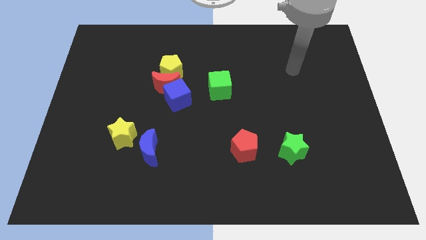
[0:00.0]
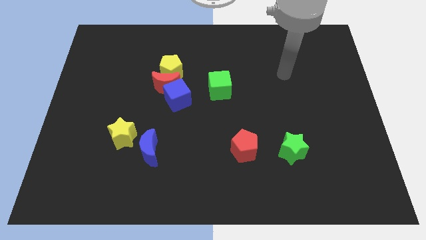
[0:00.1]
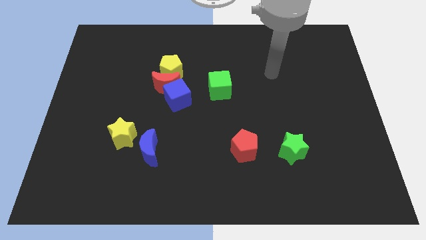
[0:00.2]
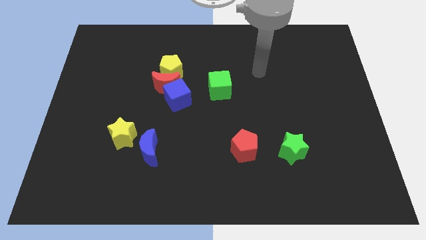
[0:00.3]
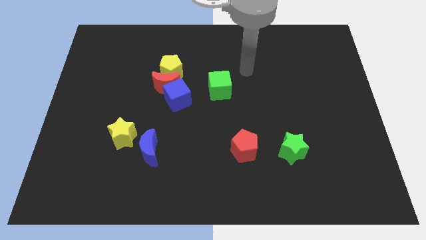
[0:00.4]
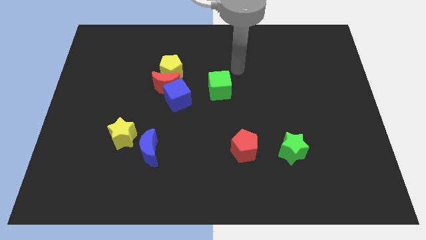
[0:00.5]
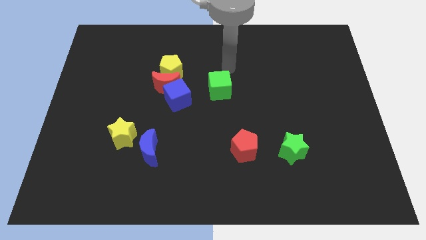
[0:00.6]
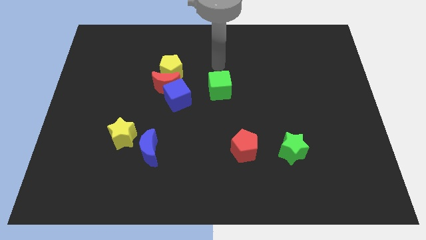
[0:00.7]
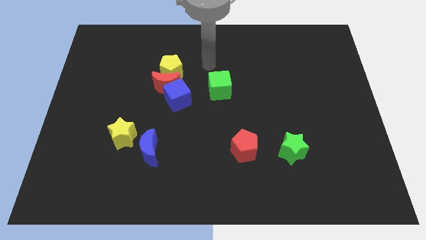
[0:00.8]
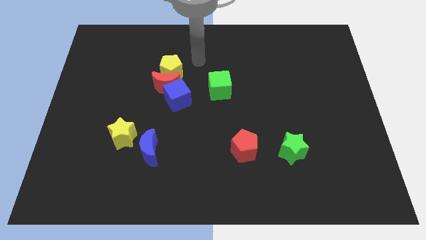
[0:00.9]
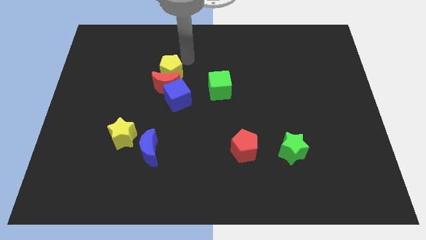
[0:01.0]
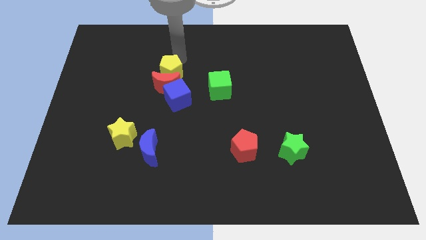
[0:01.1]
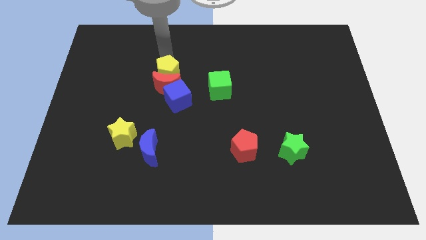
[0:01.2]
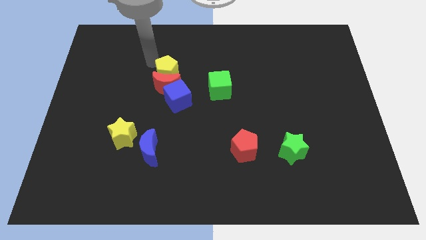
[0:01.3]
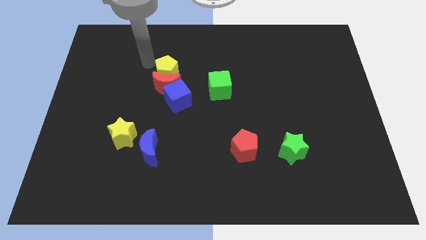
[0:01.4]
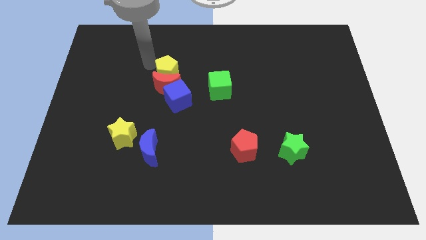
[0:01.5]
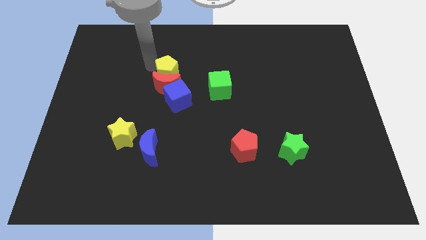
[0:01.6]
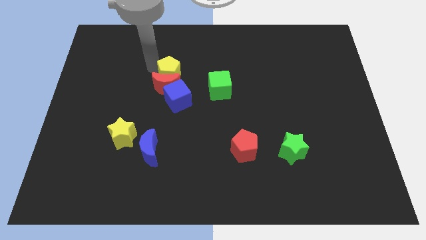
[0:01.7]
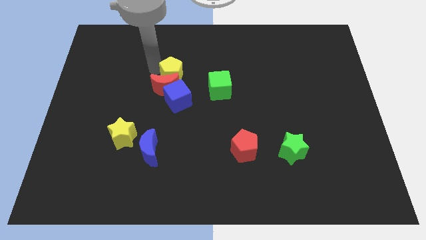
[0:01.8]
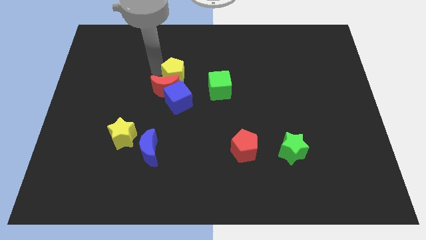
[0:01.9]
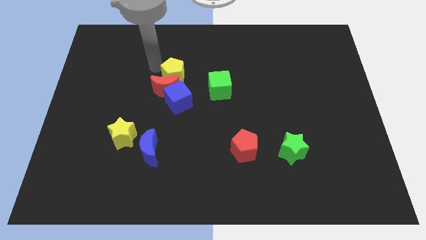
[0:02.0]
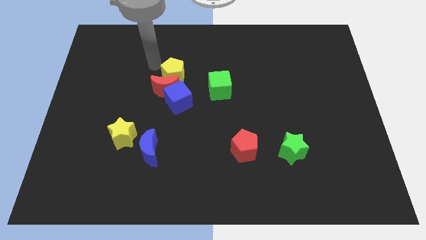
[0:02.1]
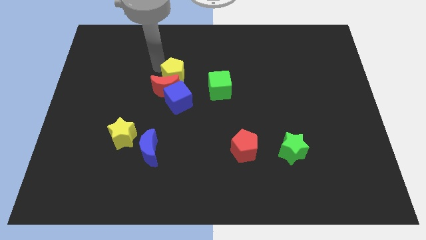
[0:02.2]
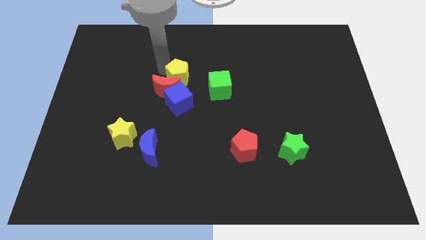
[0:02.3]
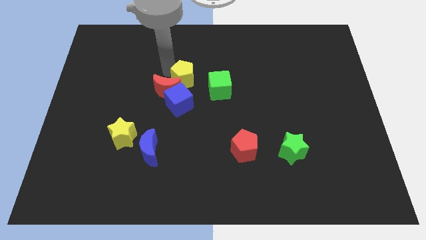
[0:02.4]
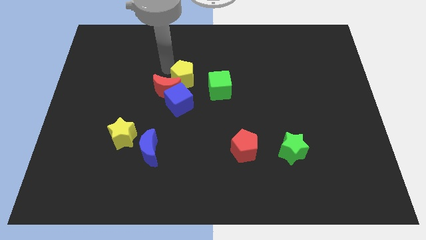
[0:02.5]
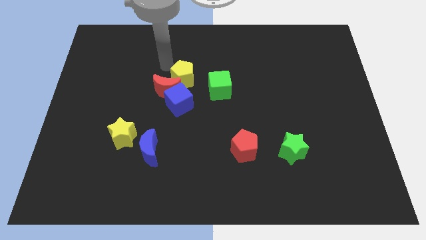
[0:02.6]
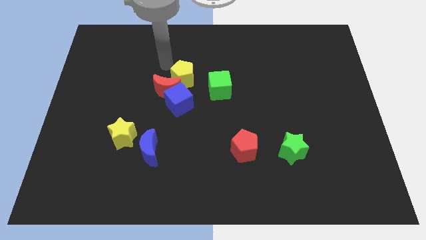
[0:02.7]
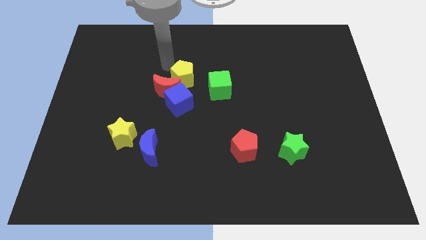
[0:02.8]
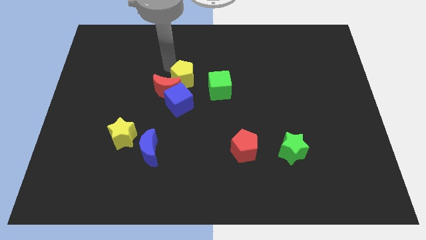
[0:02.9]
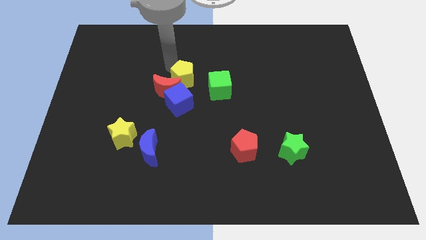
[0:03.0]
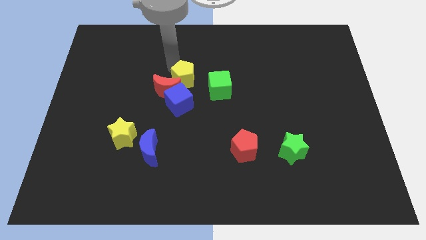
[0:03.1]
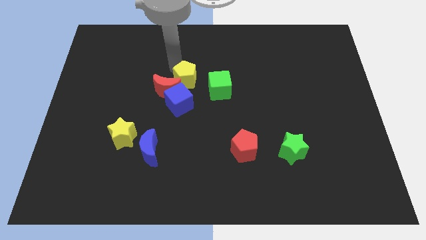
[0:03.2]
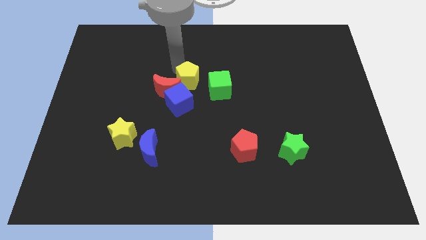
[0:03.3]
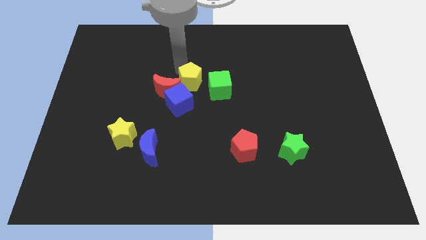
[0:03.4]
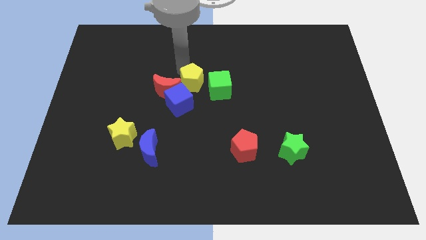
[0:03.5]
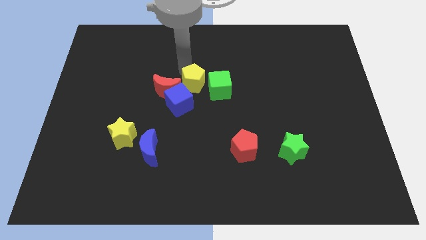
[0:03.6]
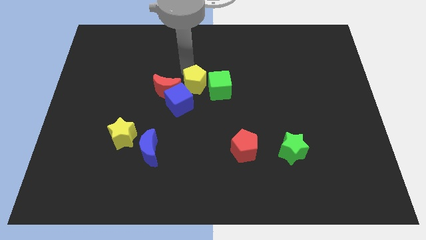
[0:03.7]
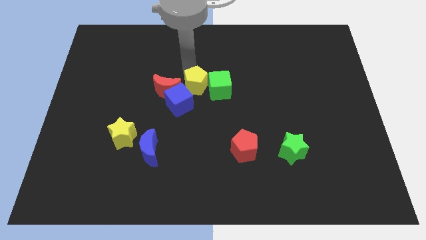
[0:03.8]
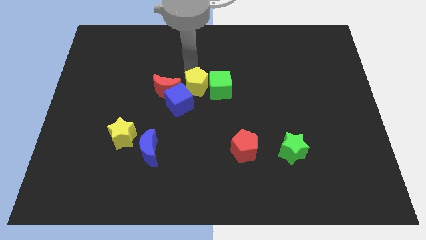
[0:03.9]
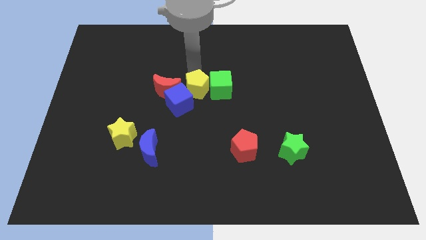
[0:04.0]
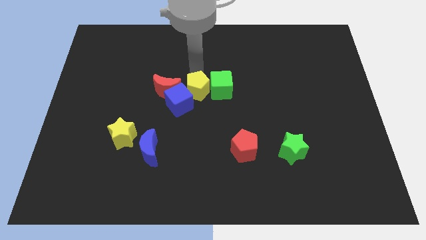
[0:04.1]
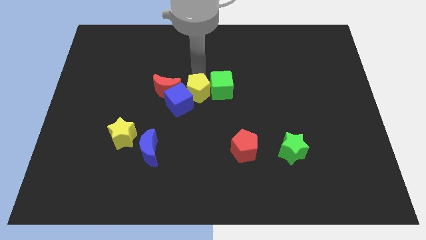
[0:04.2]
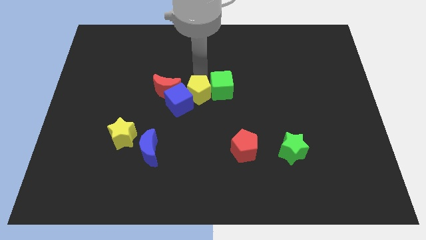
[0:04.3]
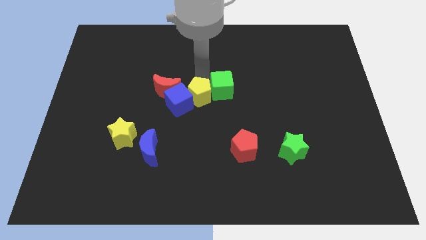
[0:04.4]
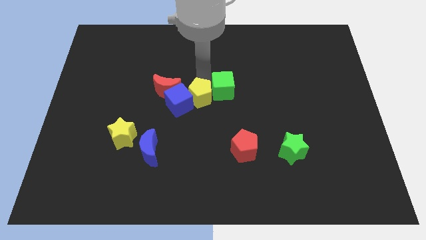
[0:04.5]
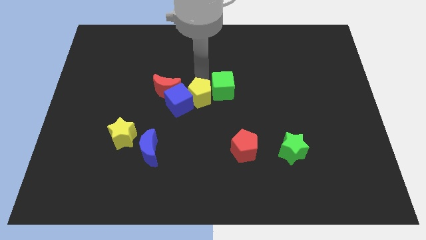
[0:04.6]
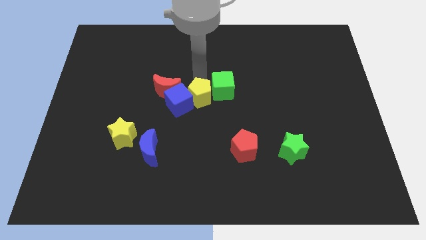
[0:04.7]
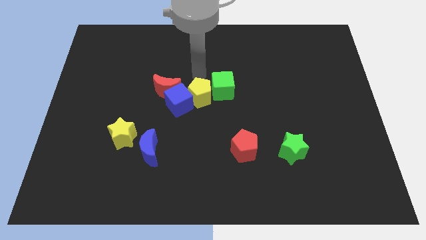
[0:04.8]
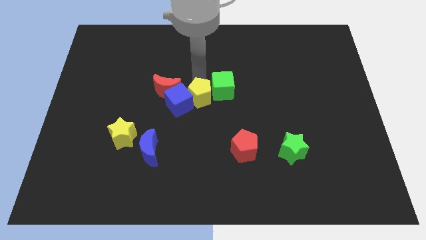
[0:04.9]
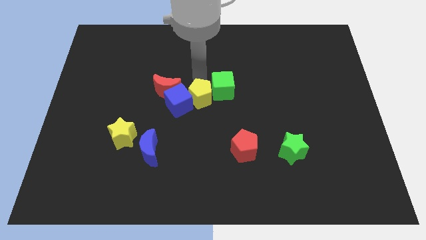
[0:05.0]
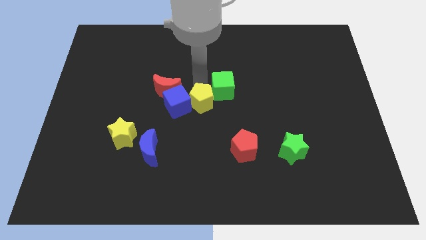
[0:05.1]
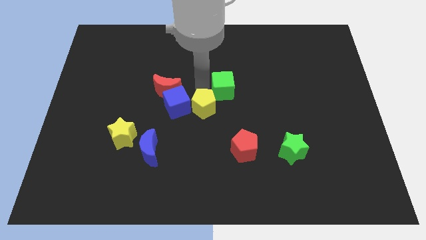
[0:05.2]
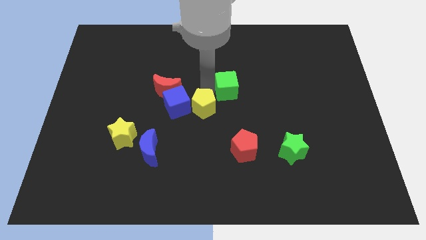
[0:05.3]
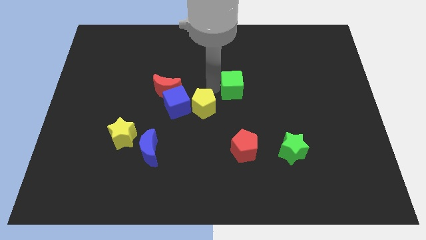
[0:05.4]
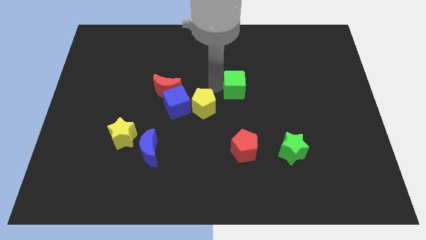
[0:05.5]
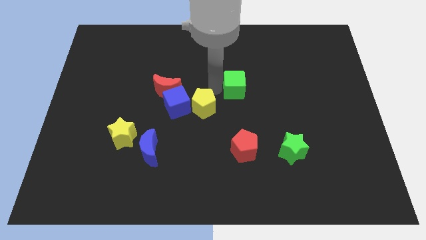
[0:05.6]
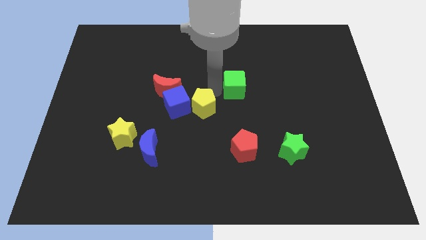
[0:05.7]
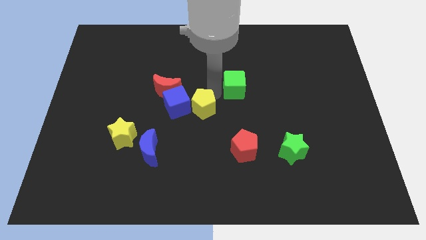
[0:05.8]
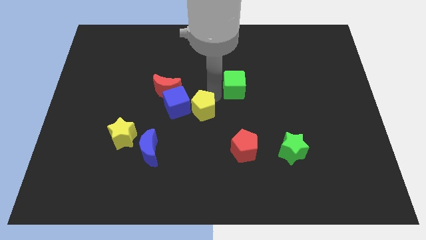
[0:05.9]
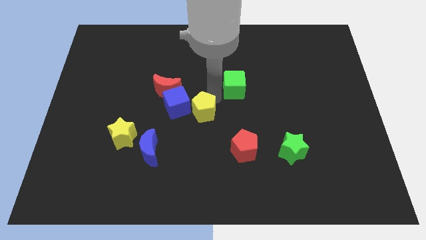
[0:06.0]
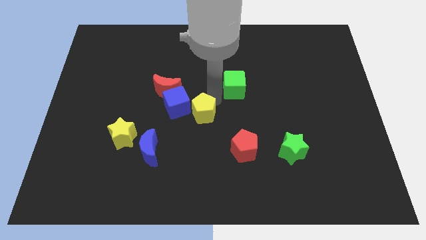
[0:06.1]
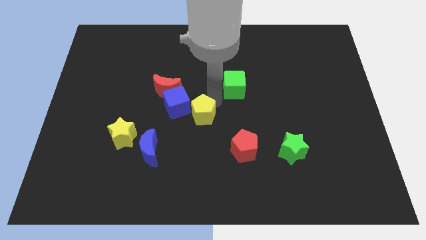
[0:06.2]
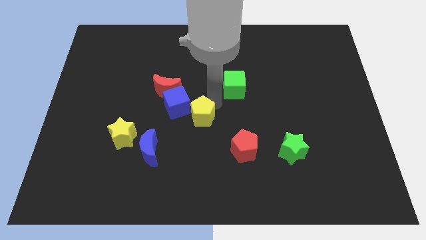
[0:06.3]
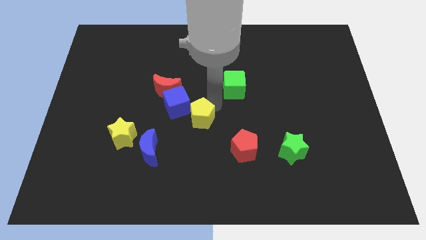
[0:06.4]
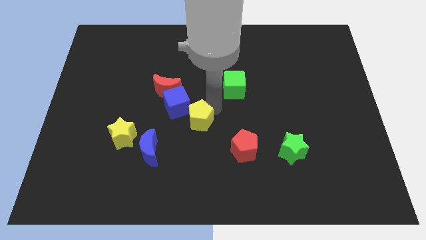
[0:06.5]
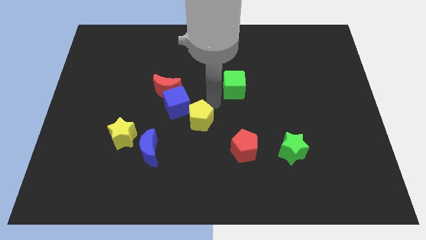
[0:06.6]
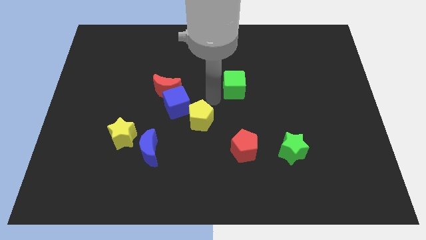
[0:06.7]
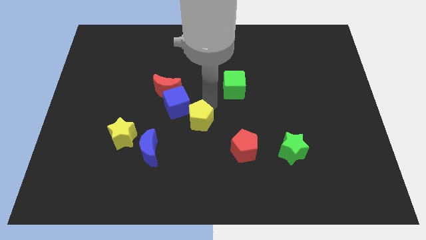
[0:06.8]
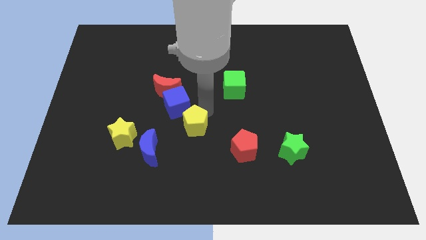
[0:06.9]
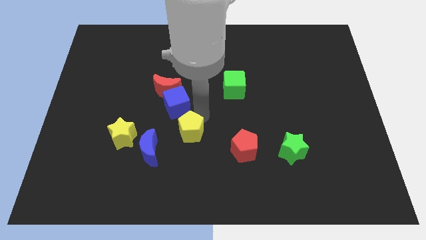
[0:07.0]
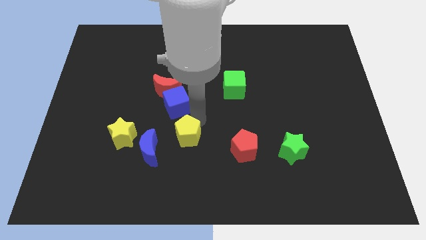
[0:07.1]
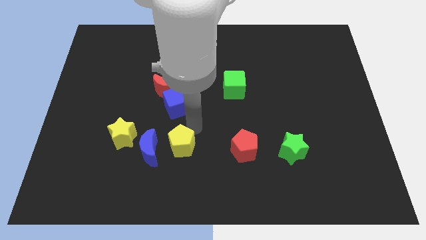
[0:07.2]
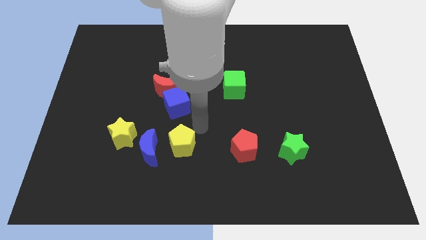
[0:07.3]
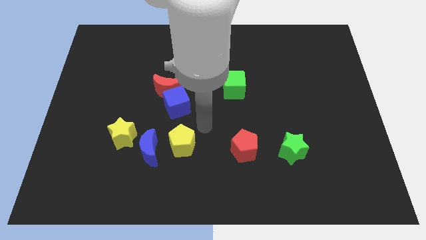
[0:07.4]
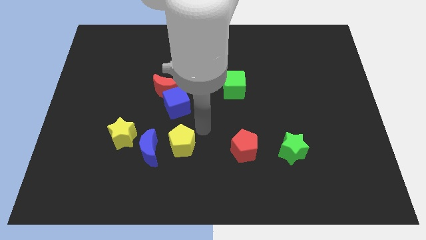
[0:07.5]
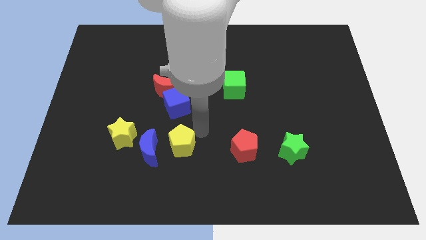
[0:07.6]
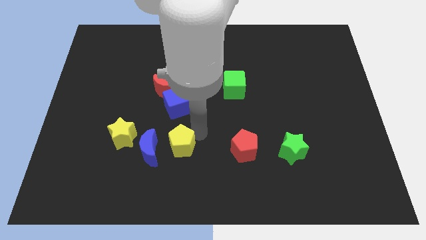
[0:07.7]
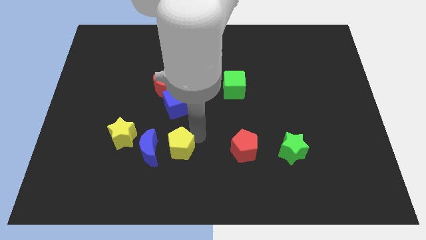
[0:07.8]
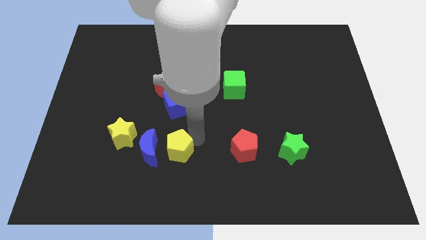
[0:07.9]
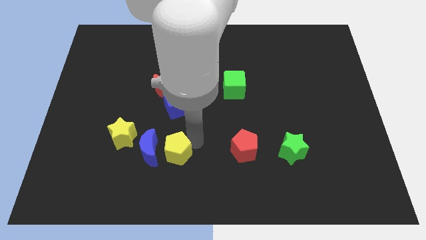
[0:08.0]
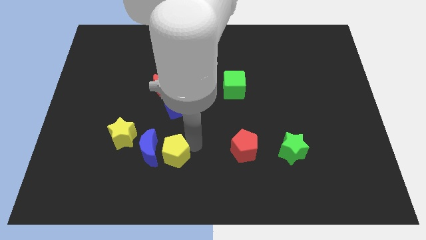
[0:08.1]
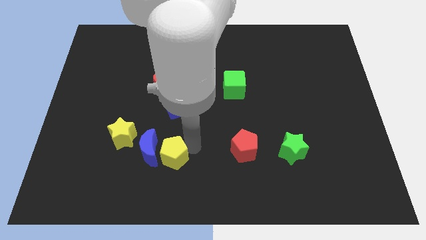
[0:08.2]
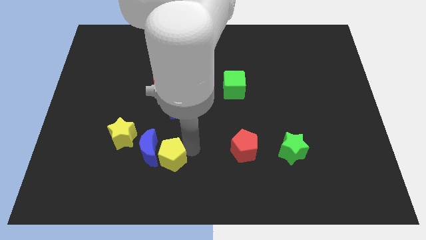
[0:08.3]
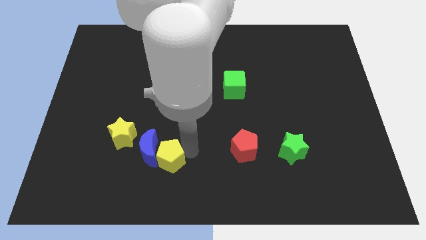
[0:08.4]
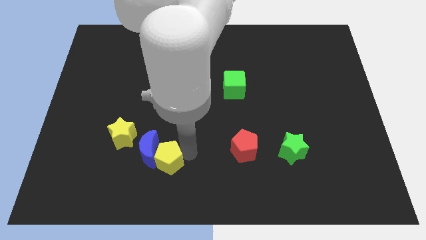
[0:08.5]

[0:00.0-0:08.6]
push the yellow pentagon to the bottom right side of the yellow star
